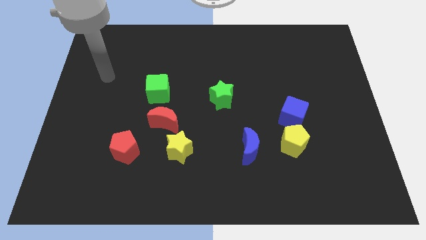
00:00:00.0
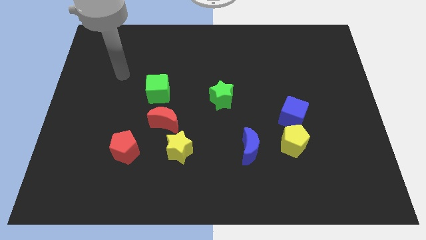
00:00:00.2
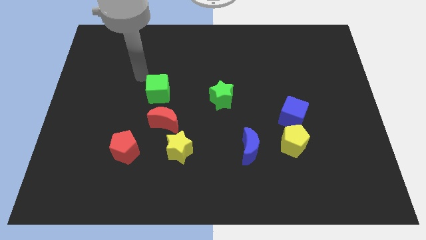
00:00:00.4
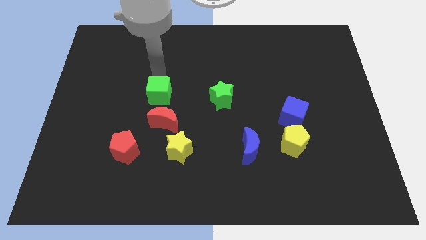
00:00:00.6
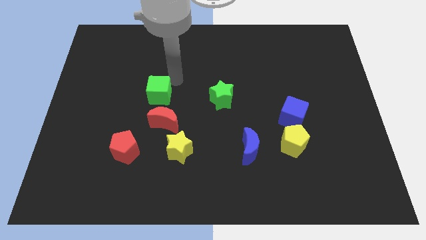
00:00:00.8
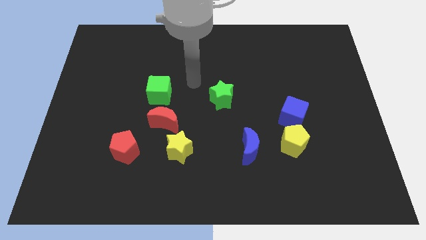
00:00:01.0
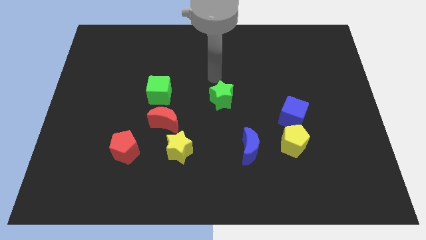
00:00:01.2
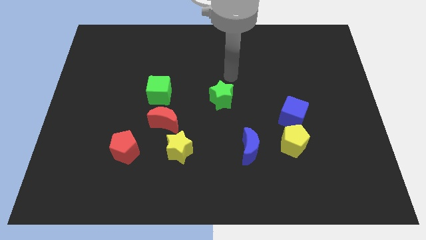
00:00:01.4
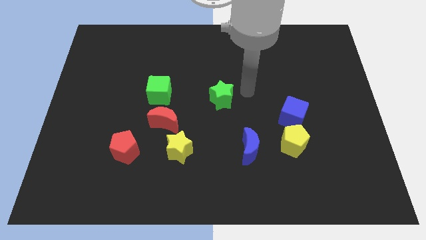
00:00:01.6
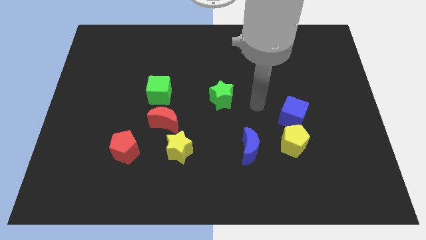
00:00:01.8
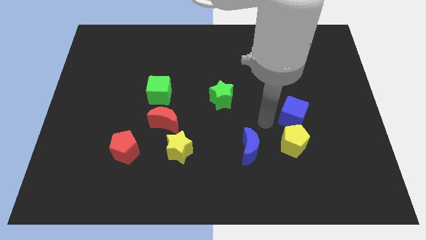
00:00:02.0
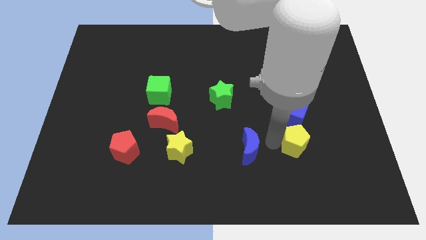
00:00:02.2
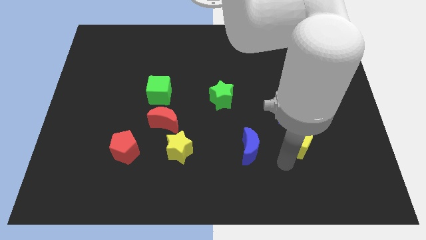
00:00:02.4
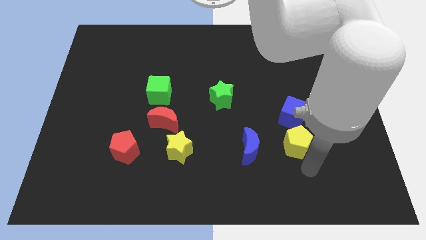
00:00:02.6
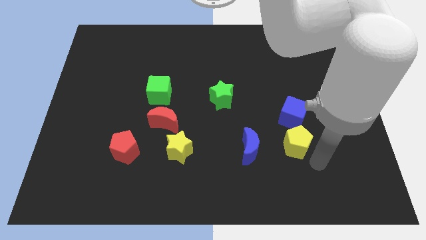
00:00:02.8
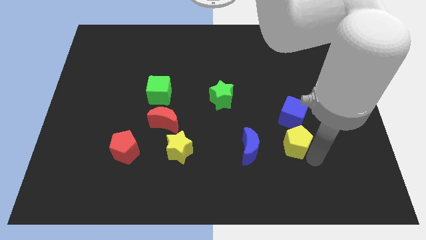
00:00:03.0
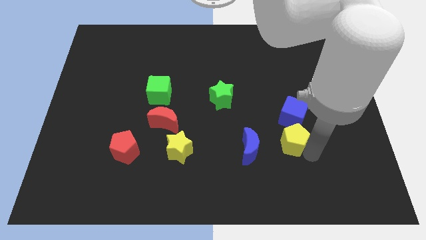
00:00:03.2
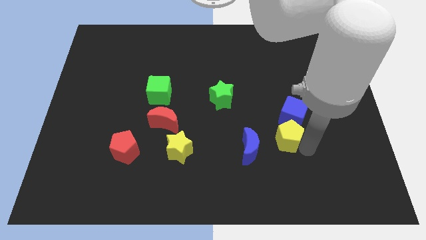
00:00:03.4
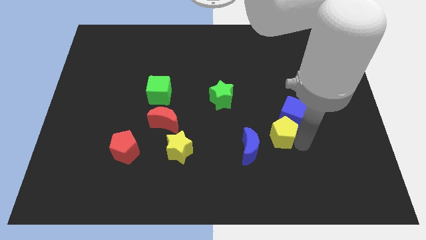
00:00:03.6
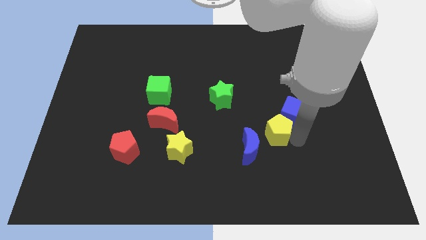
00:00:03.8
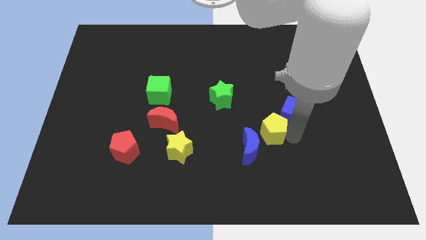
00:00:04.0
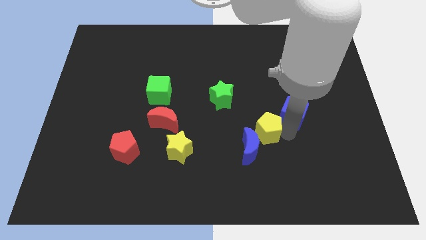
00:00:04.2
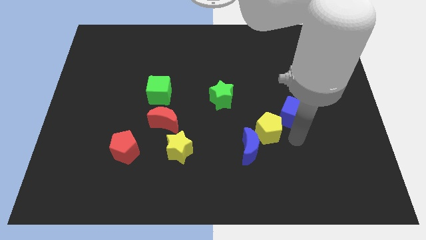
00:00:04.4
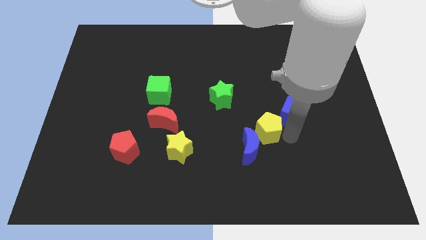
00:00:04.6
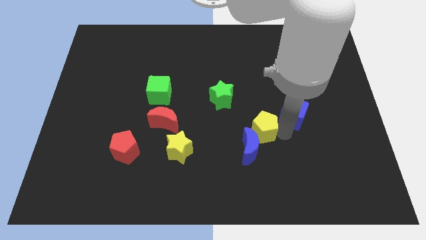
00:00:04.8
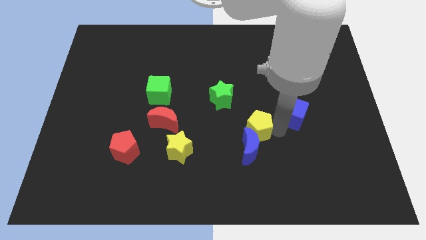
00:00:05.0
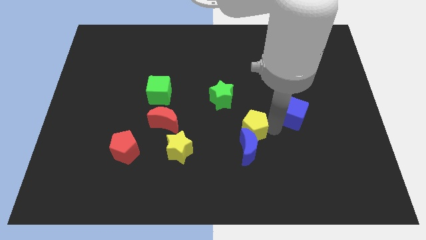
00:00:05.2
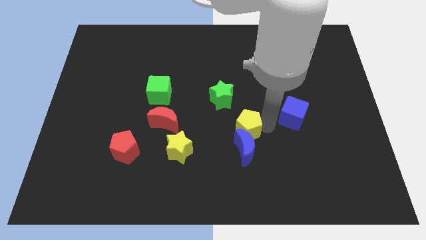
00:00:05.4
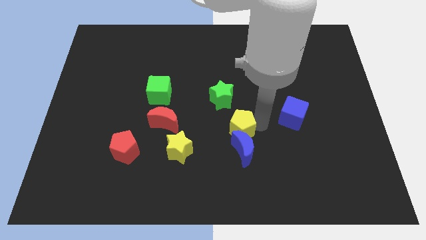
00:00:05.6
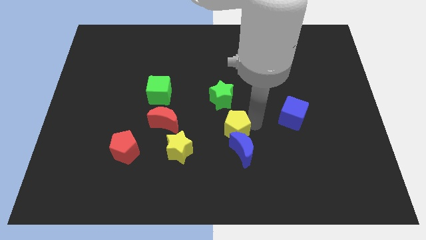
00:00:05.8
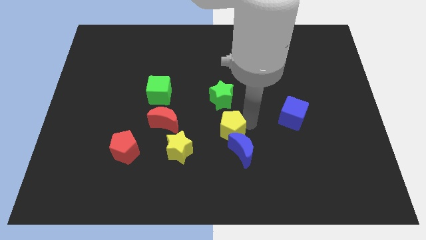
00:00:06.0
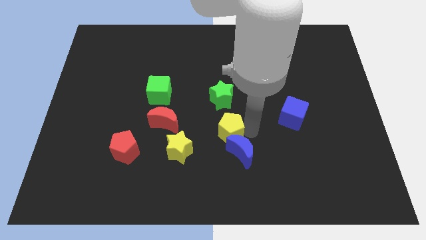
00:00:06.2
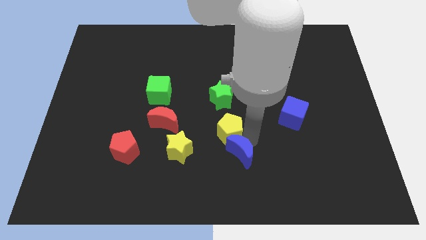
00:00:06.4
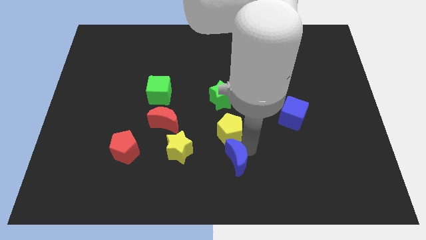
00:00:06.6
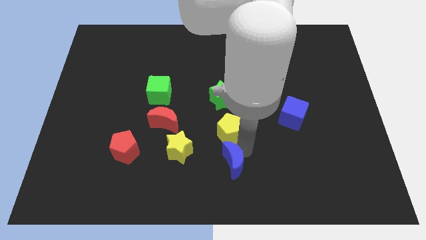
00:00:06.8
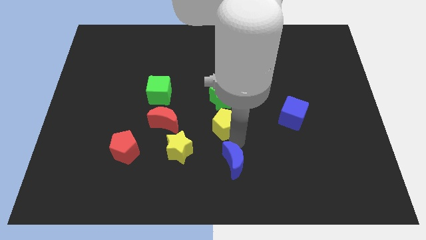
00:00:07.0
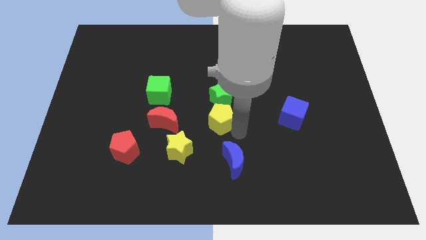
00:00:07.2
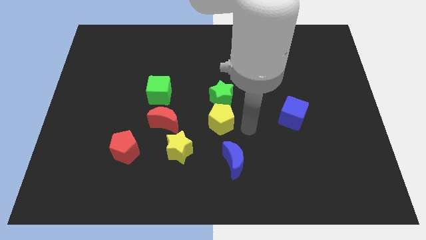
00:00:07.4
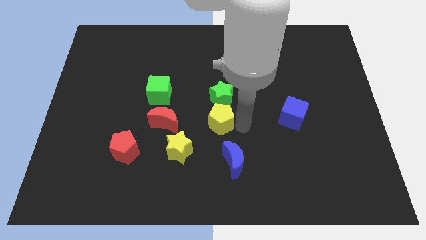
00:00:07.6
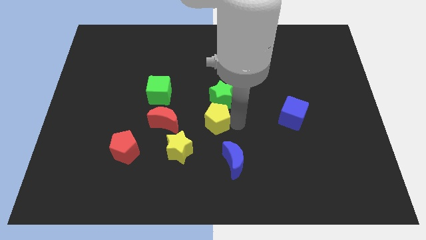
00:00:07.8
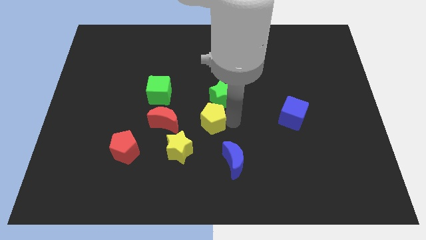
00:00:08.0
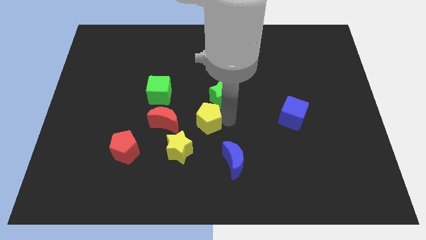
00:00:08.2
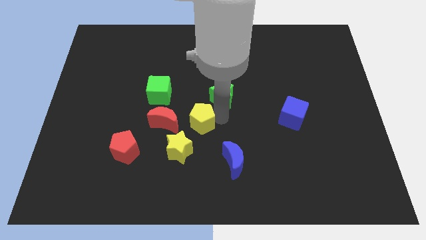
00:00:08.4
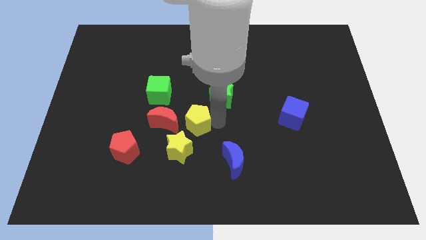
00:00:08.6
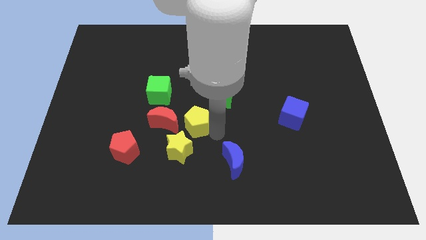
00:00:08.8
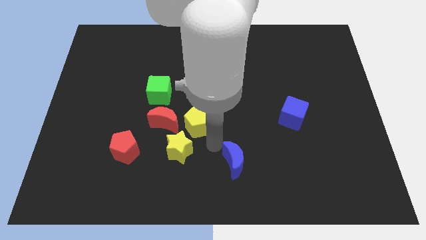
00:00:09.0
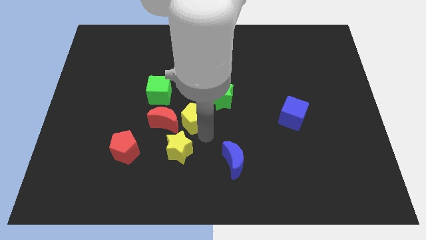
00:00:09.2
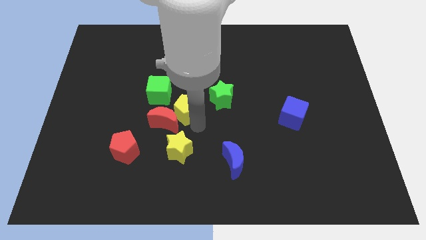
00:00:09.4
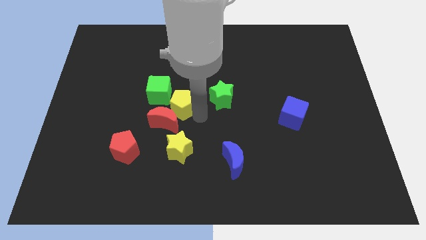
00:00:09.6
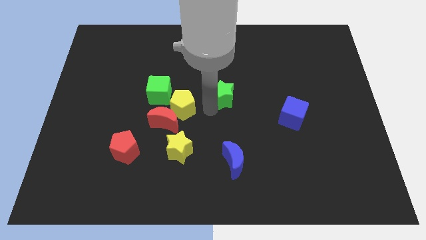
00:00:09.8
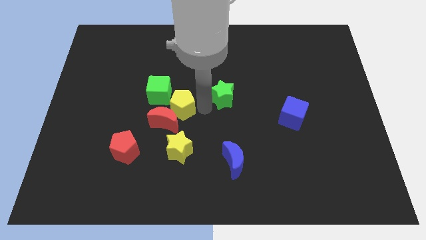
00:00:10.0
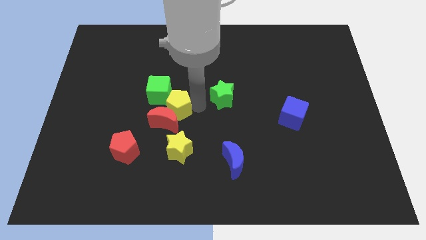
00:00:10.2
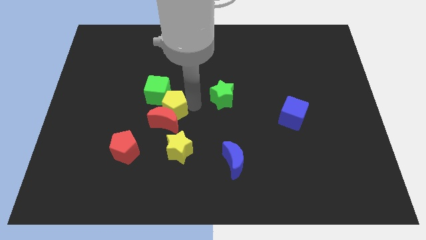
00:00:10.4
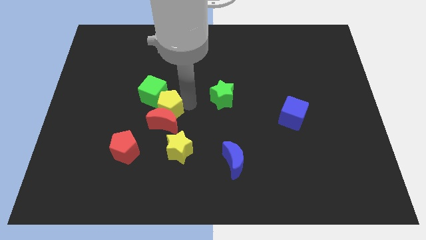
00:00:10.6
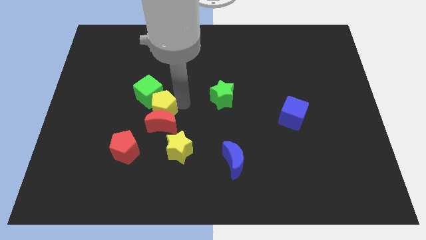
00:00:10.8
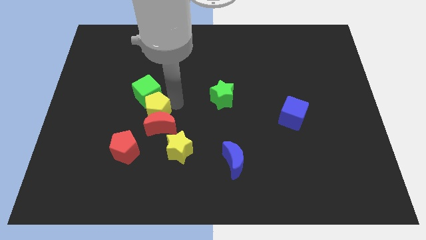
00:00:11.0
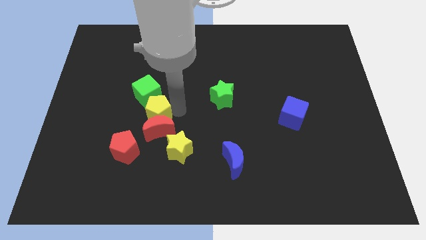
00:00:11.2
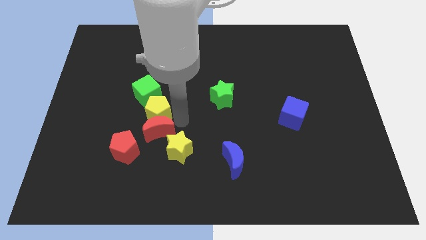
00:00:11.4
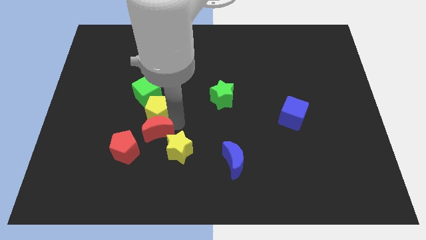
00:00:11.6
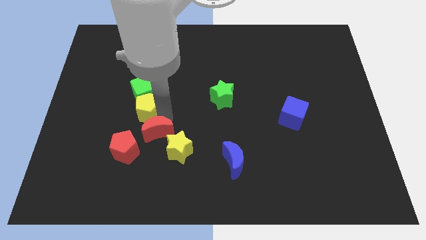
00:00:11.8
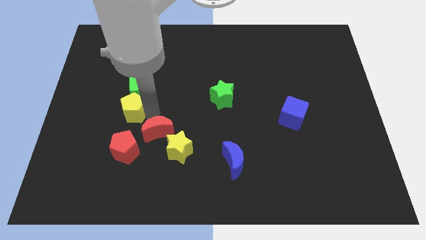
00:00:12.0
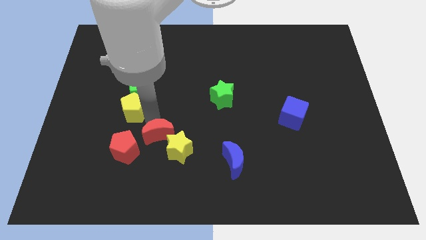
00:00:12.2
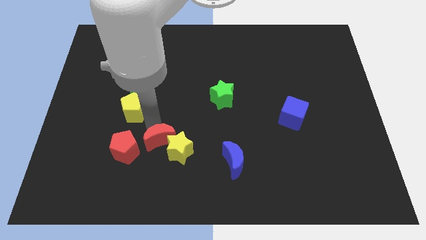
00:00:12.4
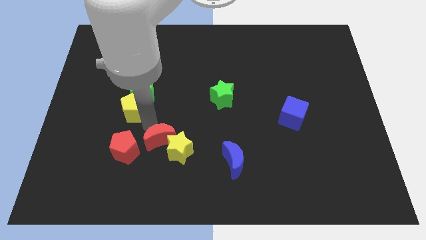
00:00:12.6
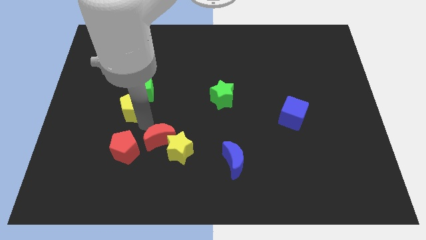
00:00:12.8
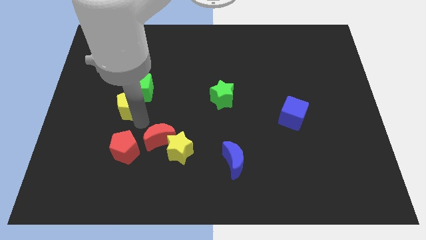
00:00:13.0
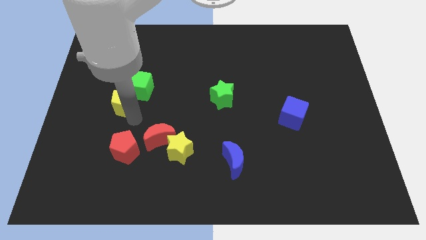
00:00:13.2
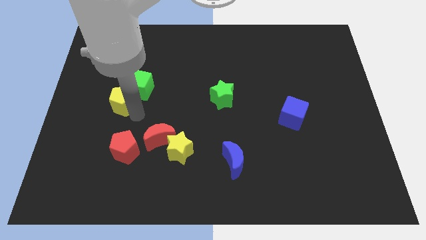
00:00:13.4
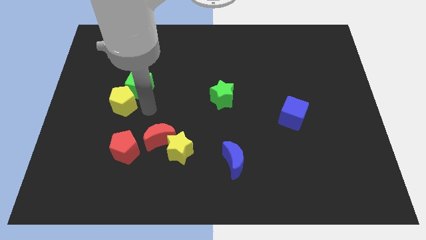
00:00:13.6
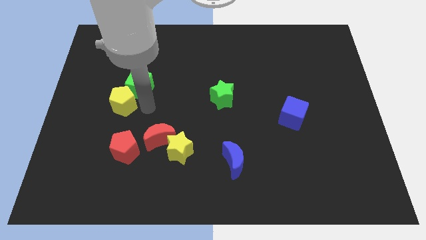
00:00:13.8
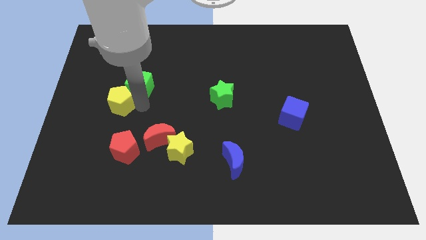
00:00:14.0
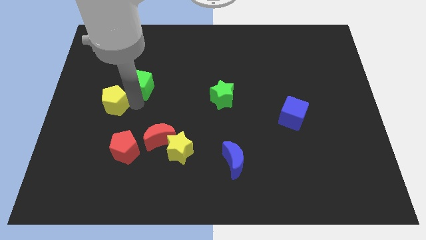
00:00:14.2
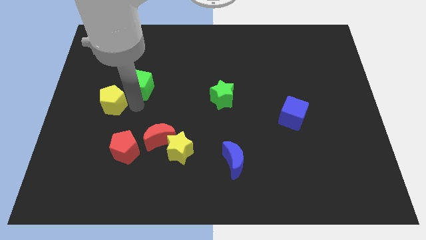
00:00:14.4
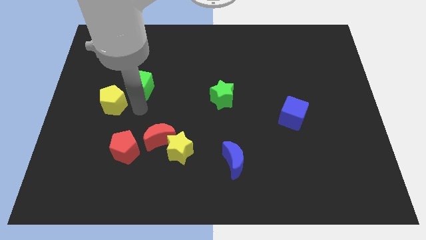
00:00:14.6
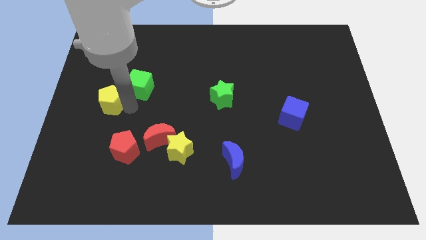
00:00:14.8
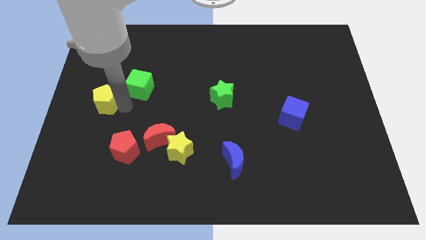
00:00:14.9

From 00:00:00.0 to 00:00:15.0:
slide the yellow pentagon to the left side of the board
